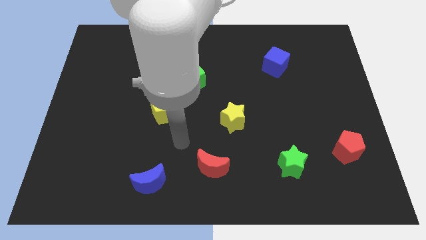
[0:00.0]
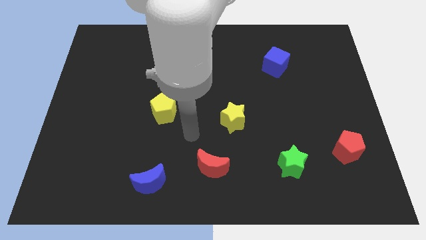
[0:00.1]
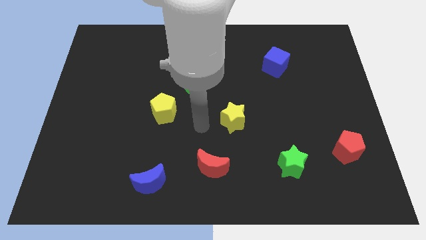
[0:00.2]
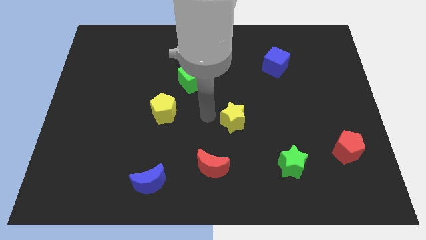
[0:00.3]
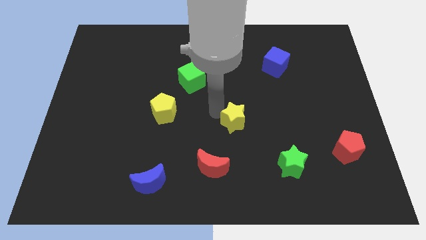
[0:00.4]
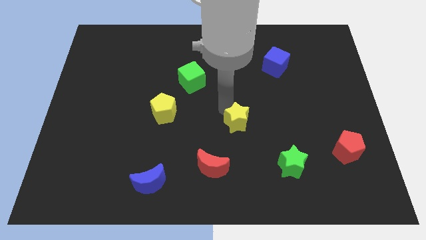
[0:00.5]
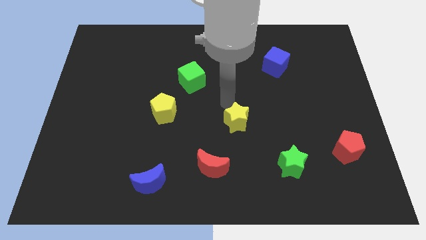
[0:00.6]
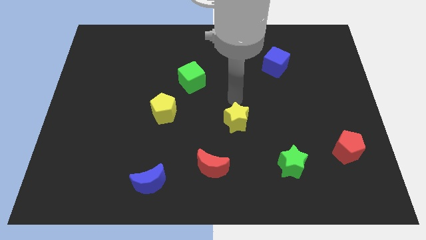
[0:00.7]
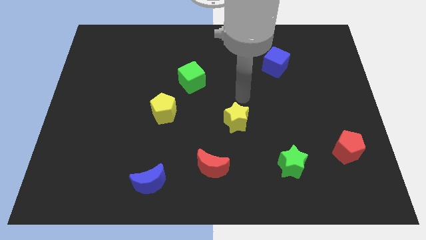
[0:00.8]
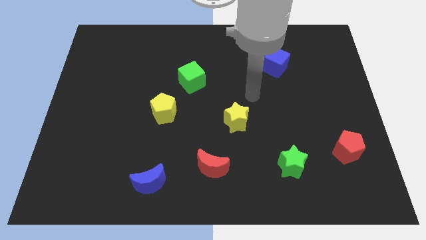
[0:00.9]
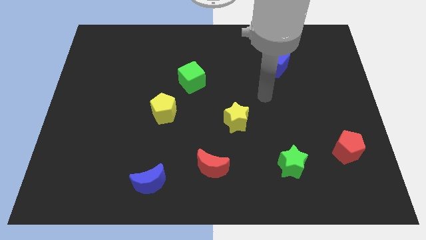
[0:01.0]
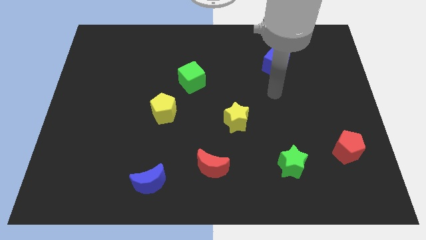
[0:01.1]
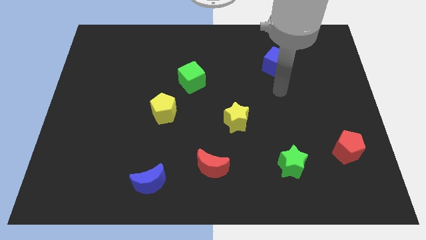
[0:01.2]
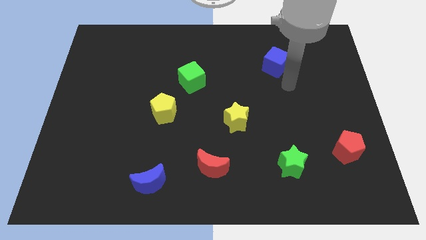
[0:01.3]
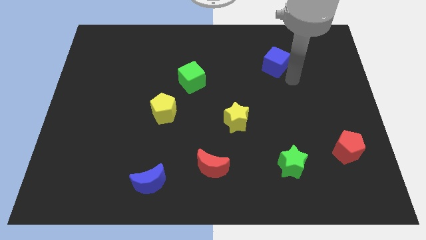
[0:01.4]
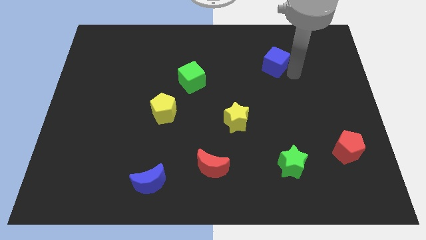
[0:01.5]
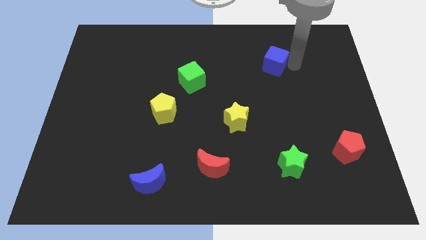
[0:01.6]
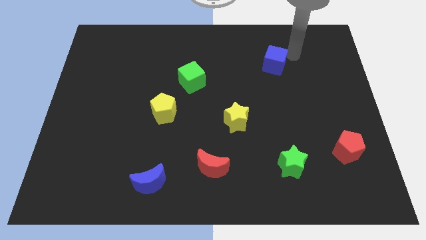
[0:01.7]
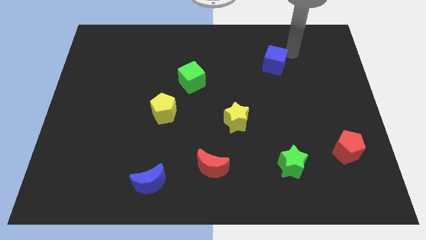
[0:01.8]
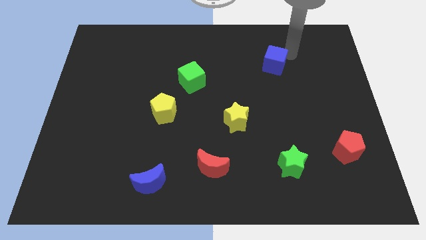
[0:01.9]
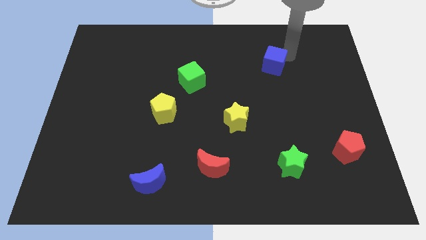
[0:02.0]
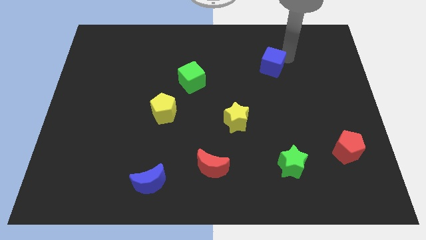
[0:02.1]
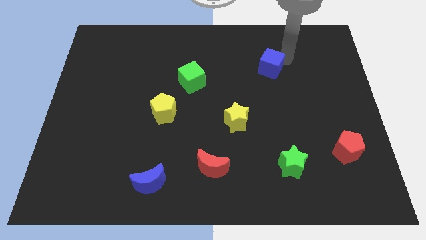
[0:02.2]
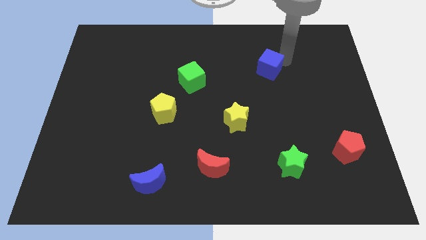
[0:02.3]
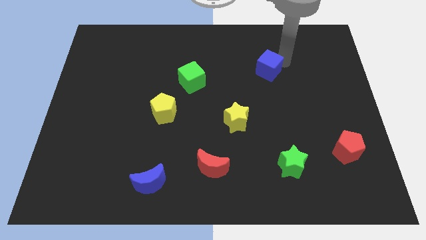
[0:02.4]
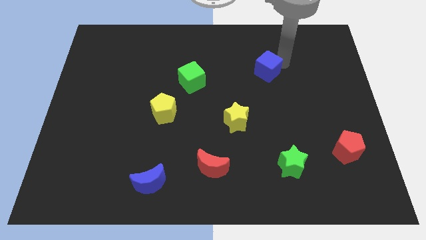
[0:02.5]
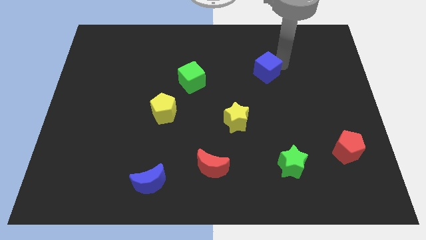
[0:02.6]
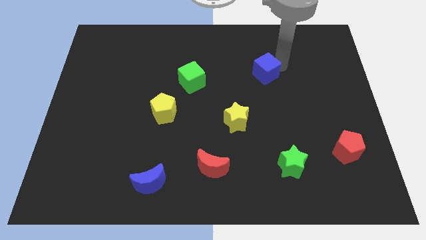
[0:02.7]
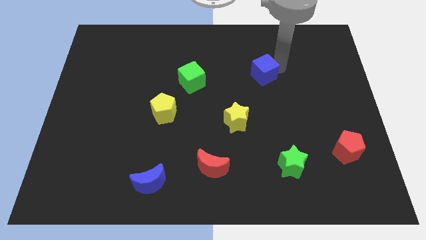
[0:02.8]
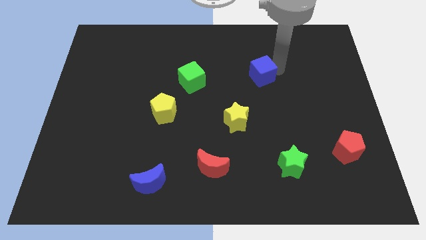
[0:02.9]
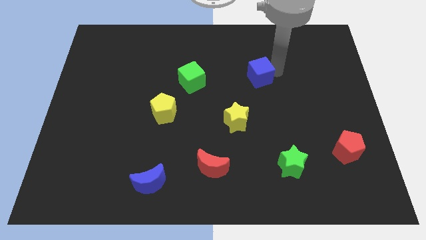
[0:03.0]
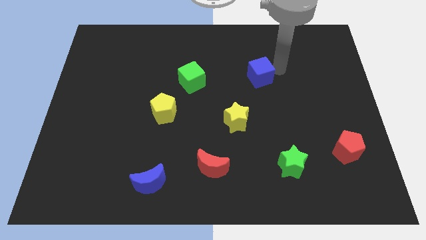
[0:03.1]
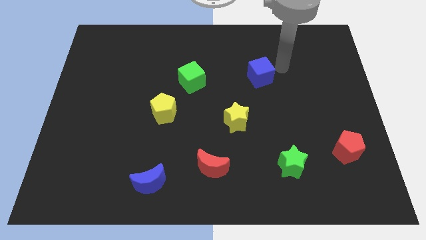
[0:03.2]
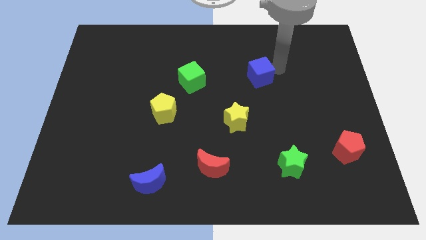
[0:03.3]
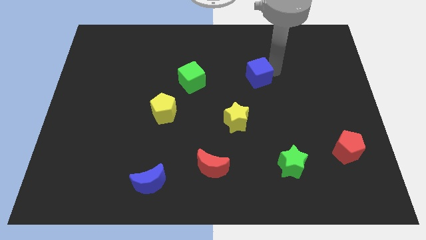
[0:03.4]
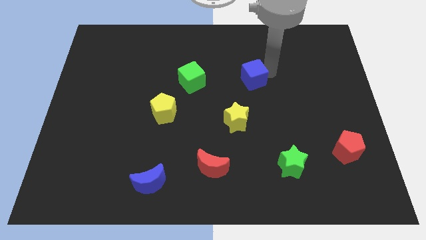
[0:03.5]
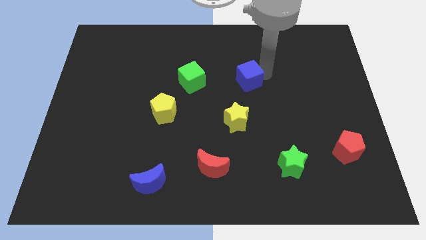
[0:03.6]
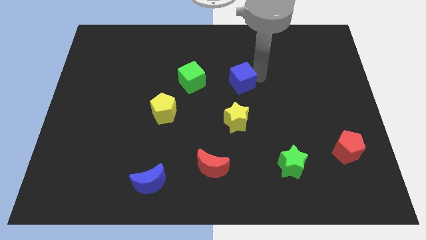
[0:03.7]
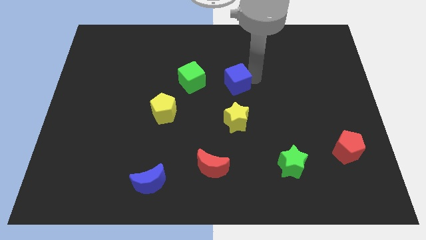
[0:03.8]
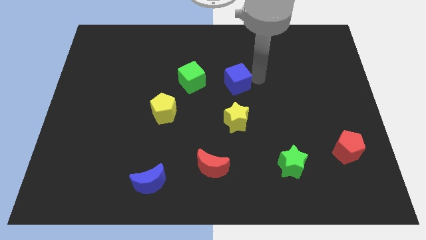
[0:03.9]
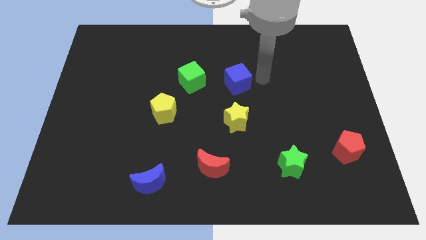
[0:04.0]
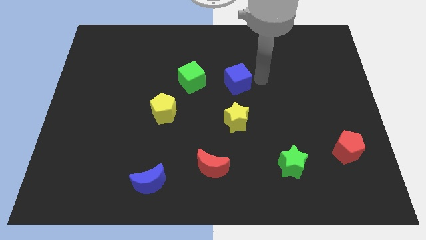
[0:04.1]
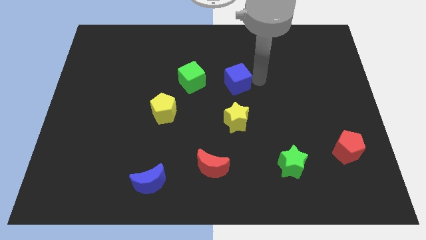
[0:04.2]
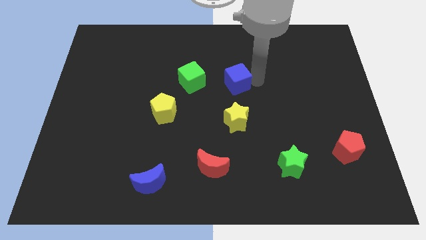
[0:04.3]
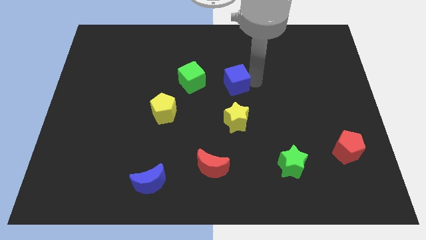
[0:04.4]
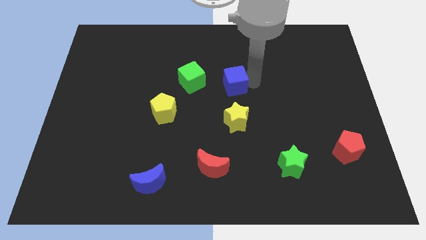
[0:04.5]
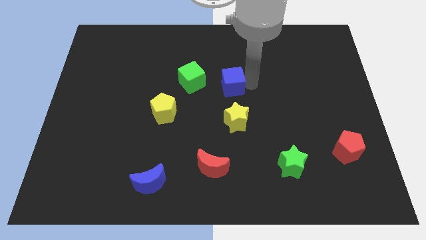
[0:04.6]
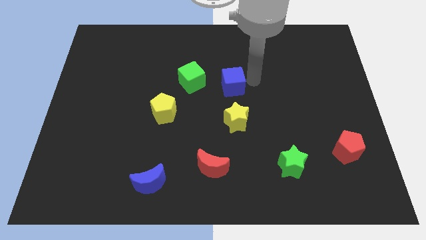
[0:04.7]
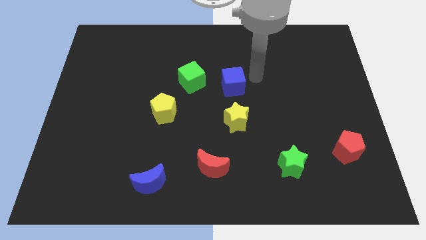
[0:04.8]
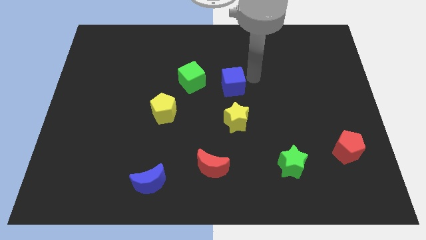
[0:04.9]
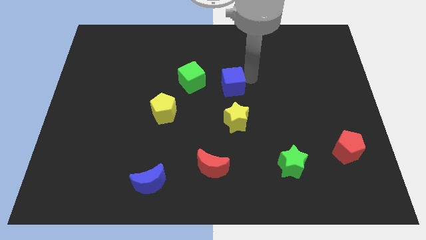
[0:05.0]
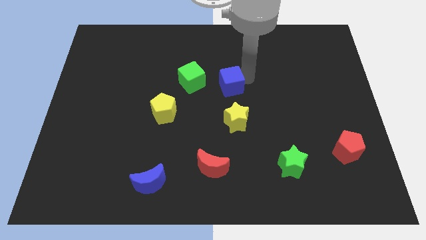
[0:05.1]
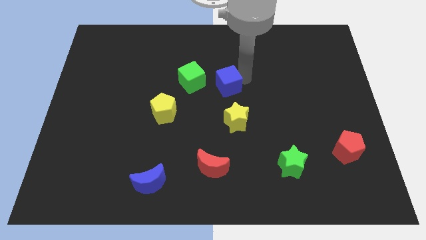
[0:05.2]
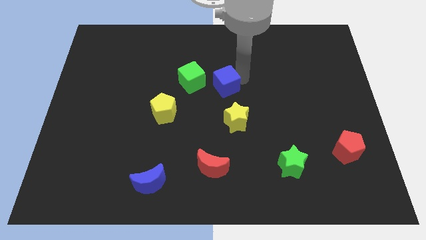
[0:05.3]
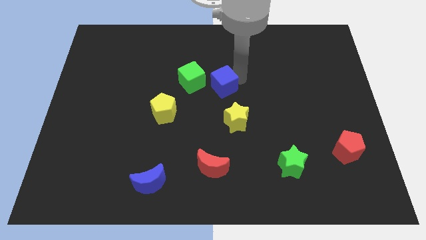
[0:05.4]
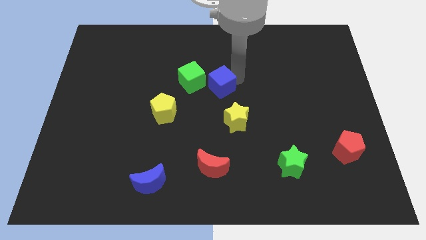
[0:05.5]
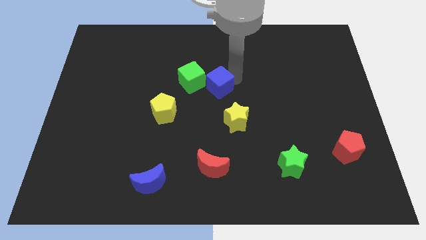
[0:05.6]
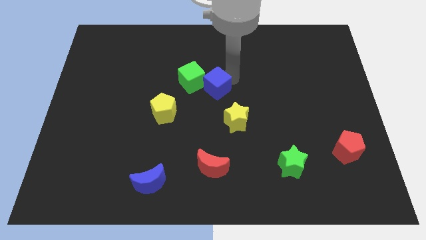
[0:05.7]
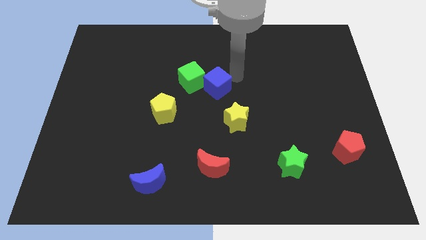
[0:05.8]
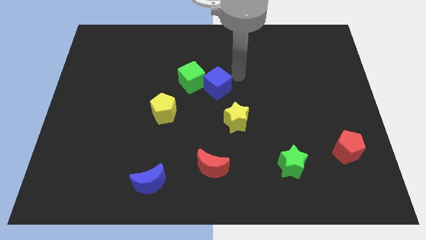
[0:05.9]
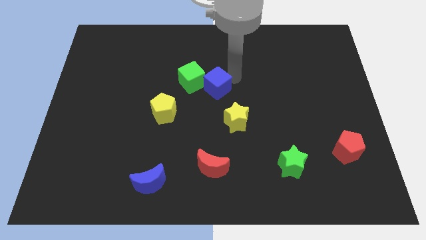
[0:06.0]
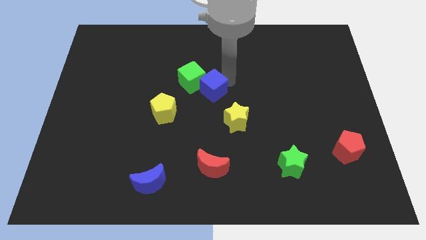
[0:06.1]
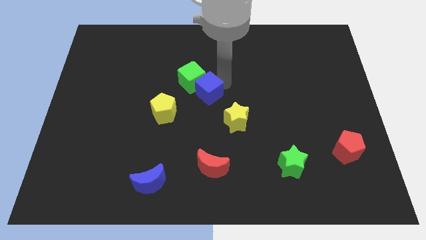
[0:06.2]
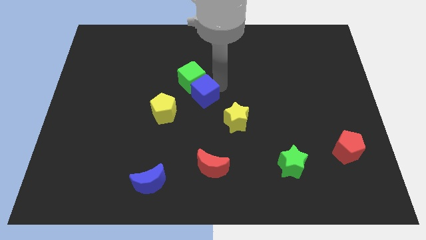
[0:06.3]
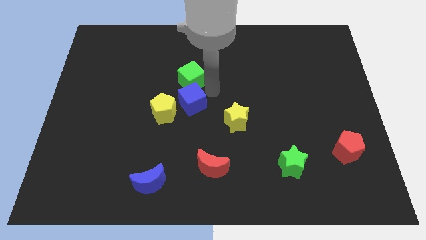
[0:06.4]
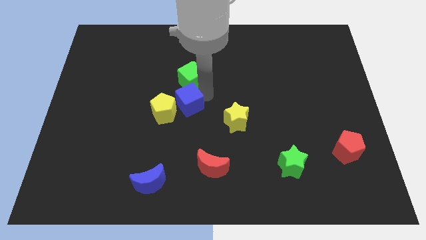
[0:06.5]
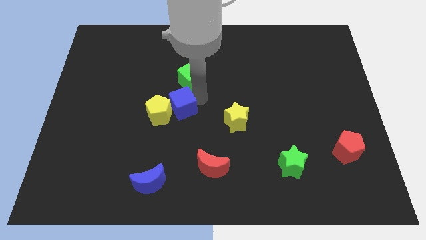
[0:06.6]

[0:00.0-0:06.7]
slide the blue cube next to the yellow pentagon

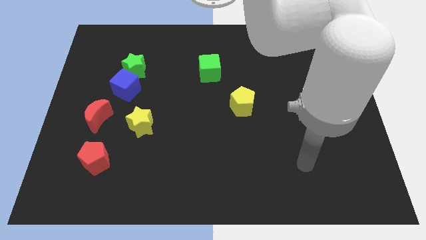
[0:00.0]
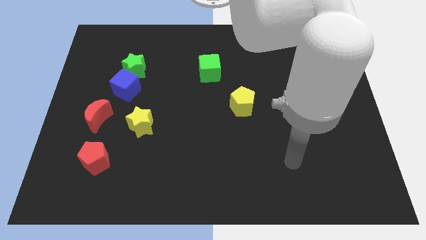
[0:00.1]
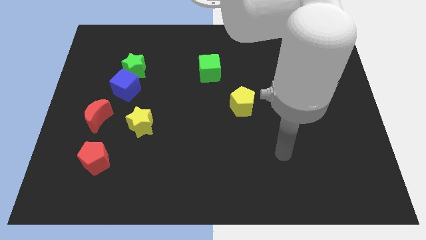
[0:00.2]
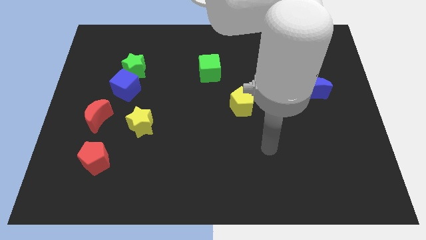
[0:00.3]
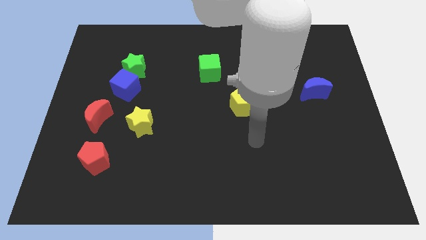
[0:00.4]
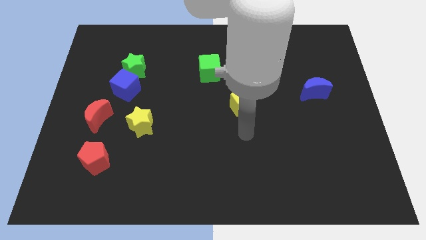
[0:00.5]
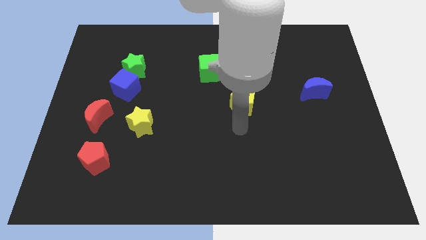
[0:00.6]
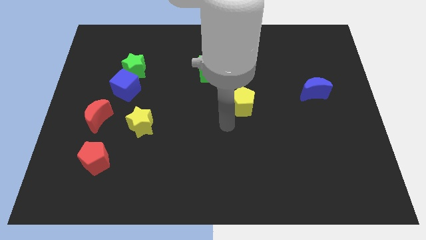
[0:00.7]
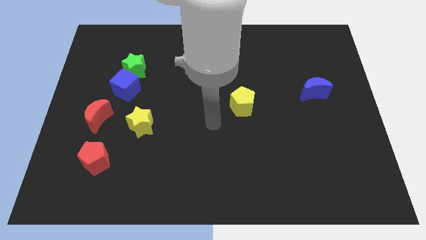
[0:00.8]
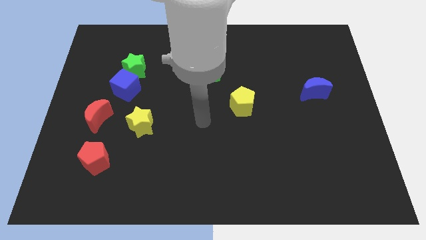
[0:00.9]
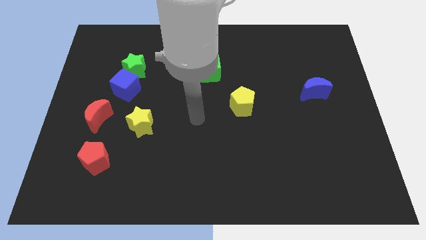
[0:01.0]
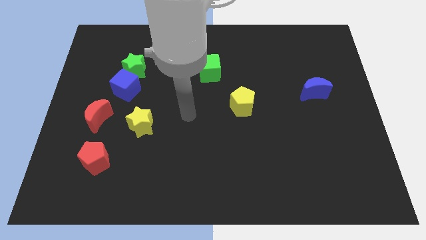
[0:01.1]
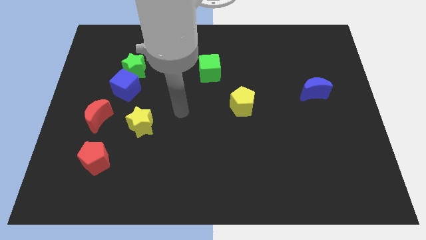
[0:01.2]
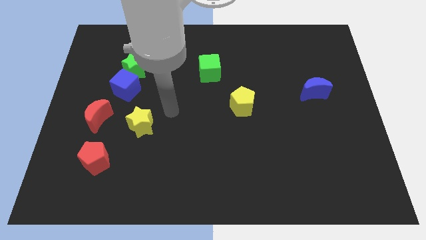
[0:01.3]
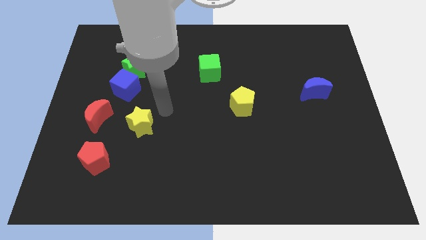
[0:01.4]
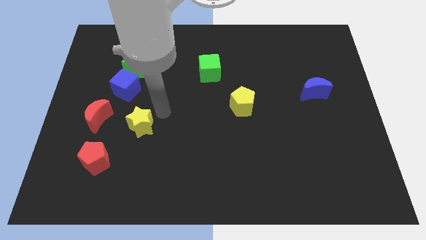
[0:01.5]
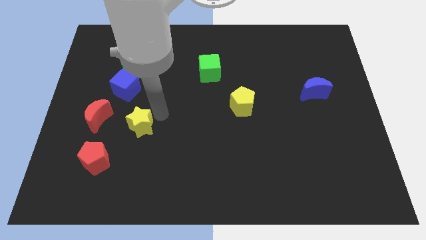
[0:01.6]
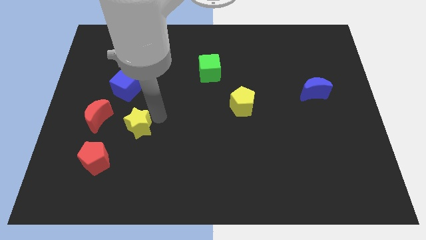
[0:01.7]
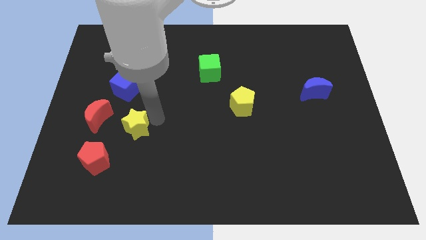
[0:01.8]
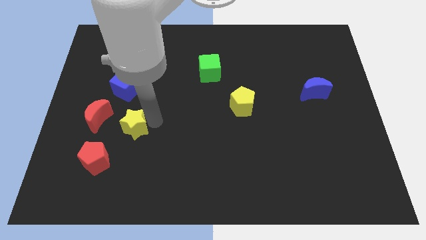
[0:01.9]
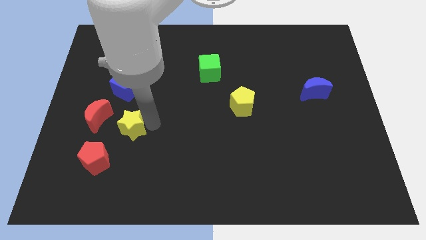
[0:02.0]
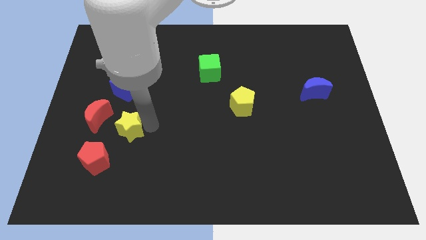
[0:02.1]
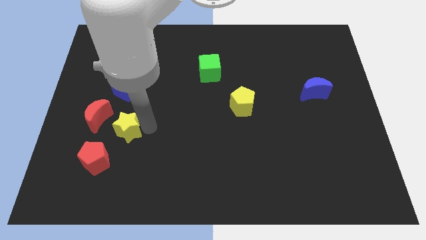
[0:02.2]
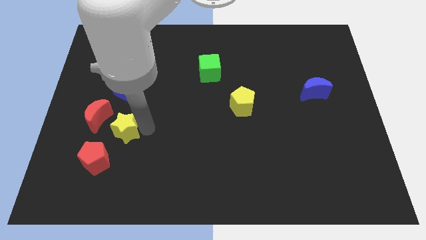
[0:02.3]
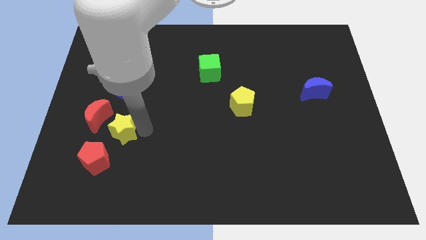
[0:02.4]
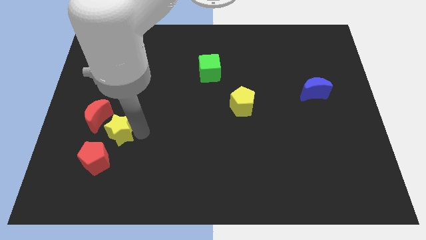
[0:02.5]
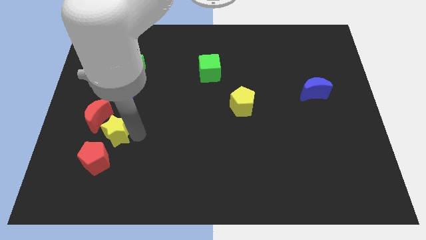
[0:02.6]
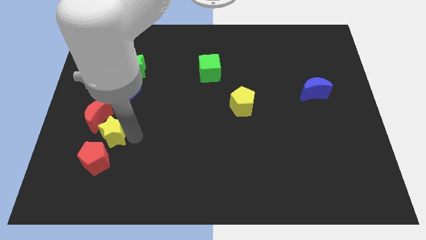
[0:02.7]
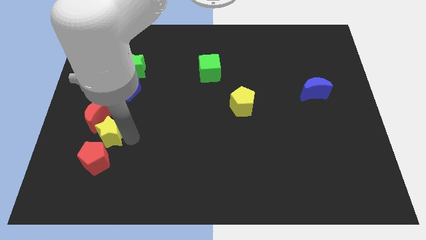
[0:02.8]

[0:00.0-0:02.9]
slide the yellow star to the red pentagon
